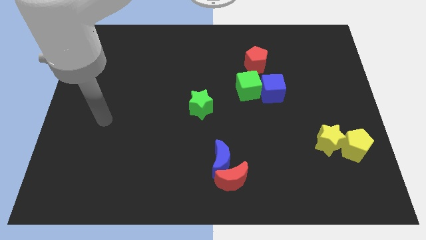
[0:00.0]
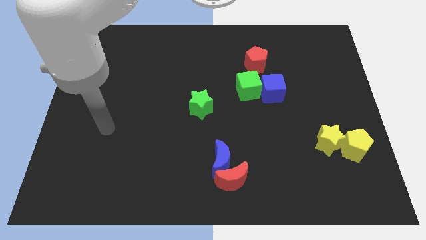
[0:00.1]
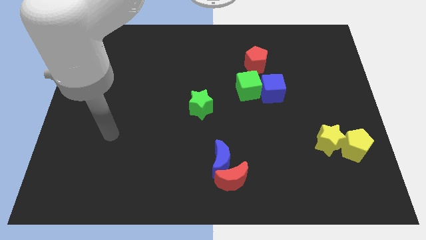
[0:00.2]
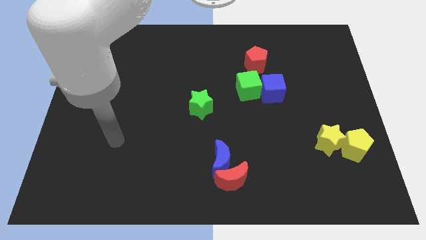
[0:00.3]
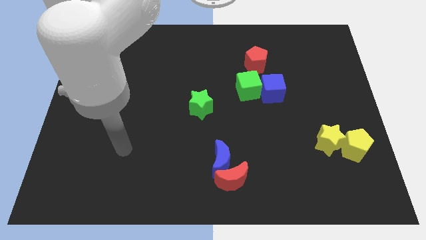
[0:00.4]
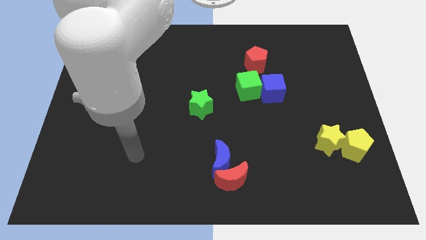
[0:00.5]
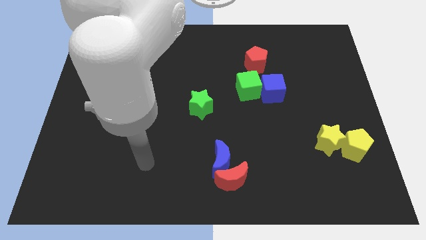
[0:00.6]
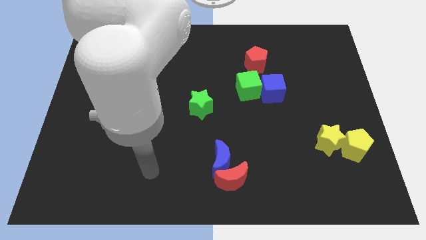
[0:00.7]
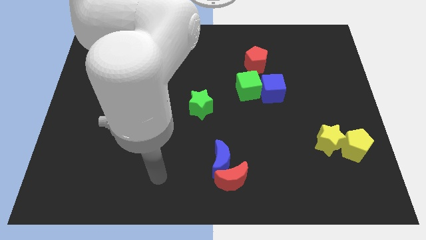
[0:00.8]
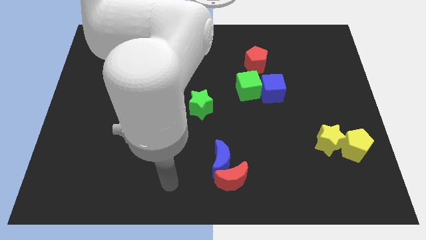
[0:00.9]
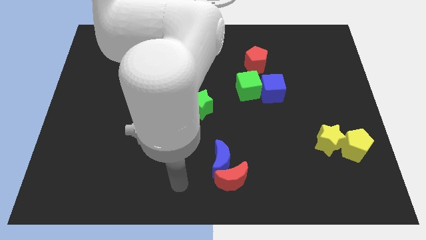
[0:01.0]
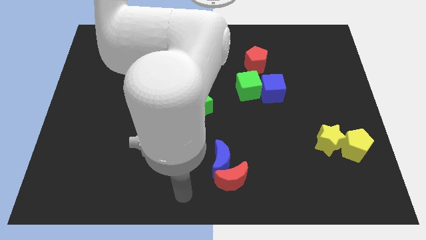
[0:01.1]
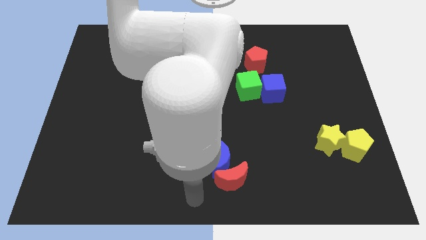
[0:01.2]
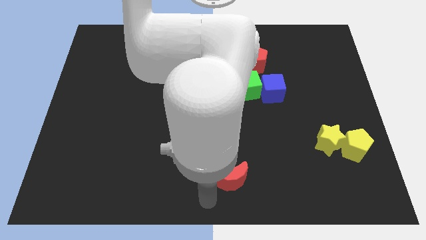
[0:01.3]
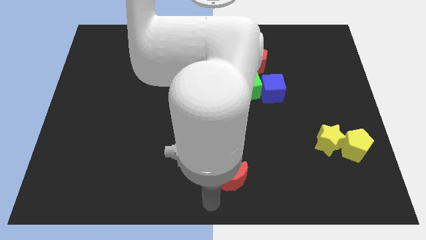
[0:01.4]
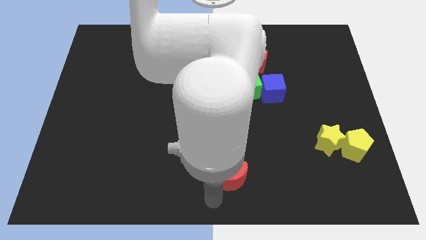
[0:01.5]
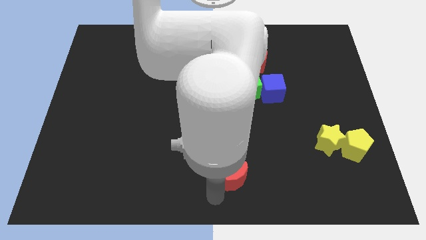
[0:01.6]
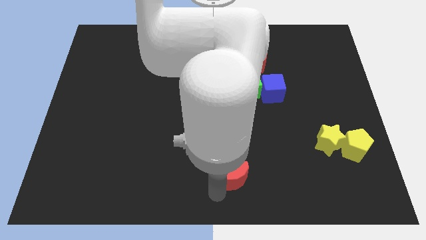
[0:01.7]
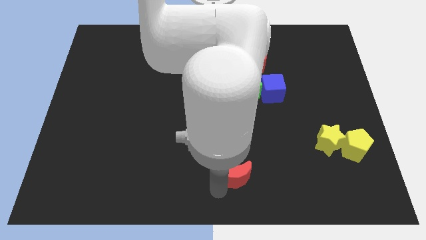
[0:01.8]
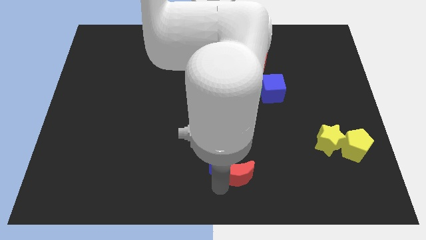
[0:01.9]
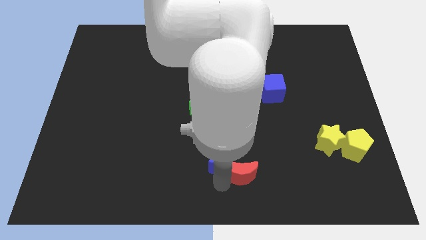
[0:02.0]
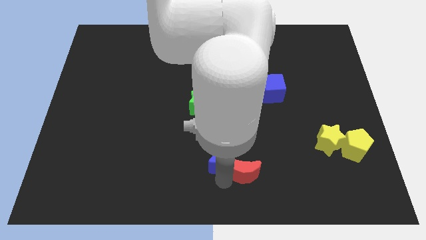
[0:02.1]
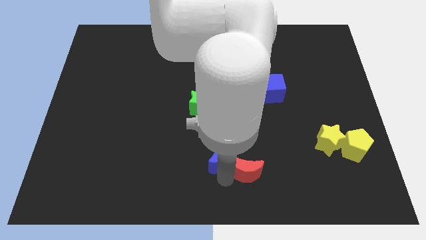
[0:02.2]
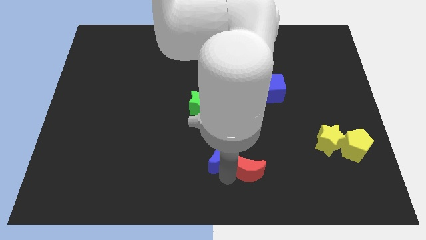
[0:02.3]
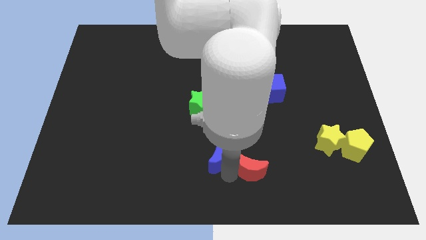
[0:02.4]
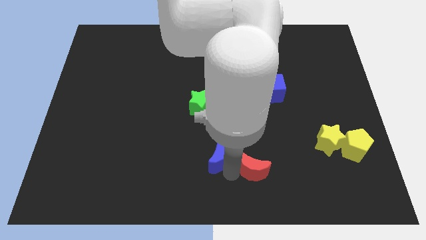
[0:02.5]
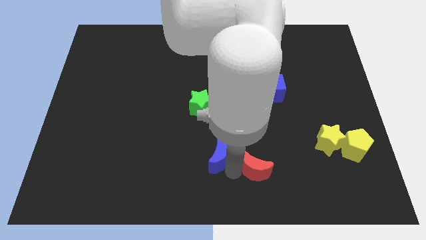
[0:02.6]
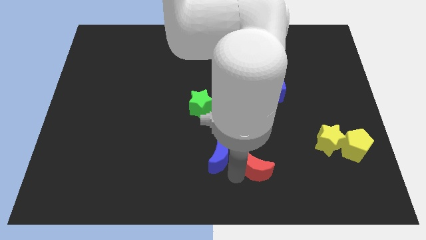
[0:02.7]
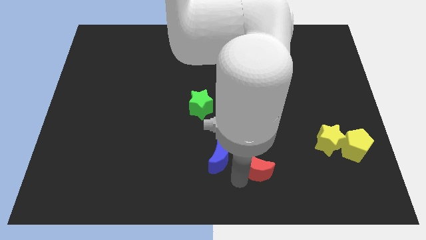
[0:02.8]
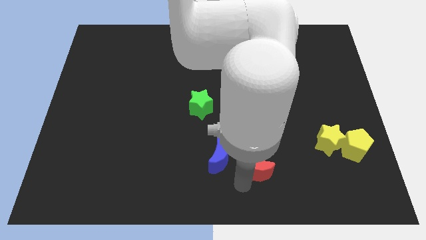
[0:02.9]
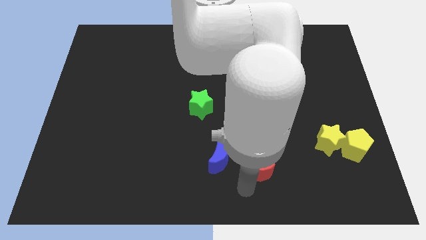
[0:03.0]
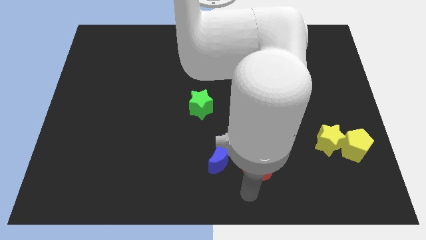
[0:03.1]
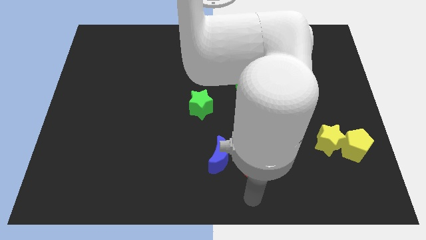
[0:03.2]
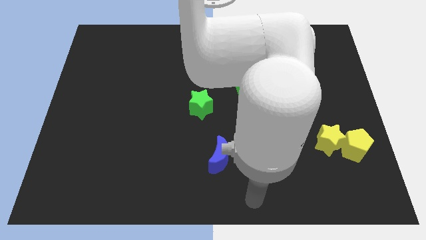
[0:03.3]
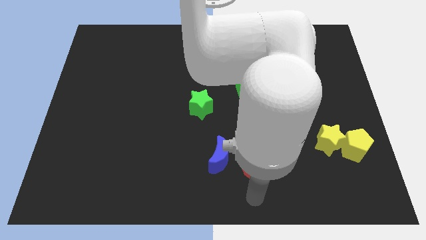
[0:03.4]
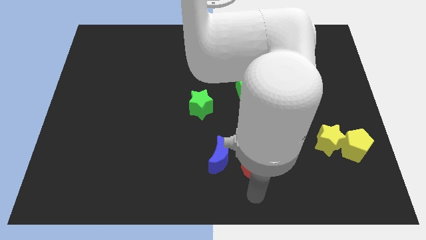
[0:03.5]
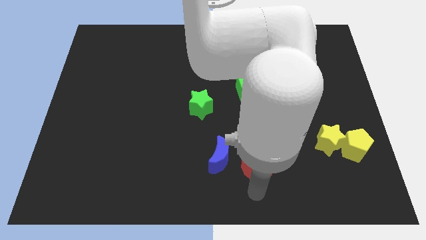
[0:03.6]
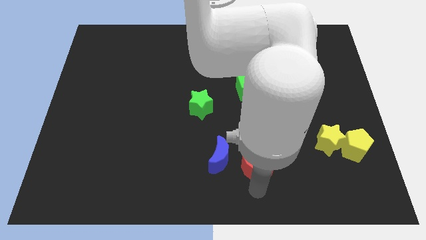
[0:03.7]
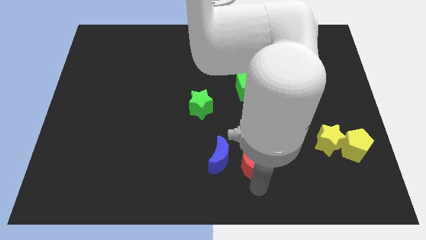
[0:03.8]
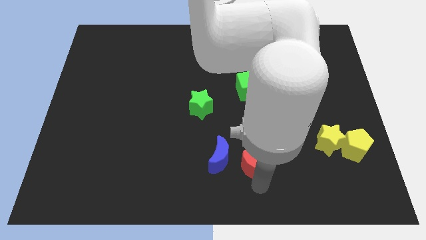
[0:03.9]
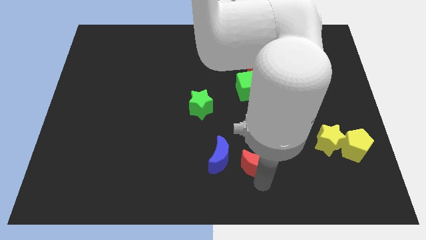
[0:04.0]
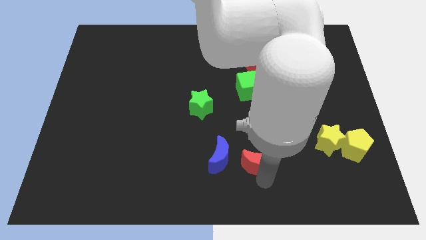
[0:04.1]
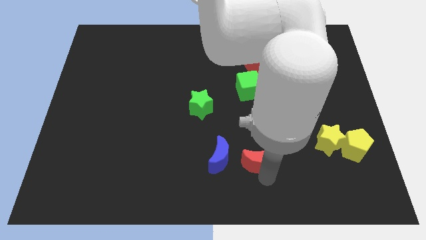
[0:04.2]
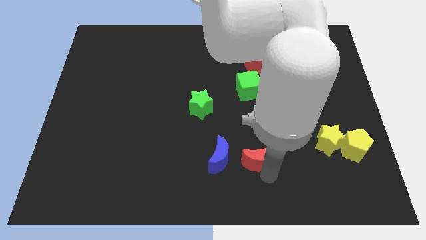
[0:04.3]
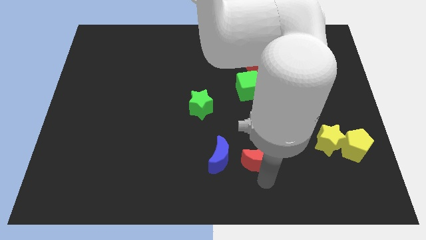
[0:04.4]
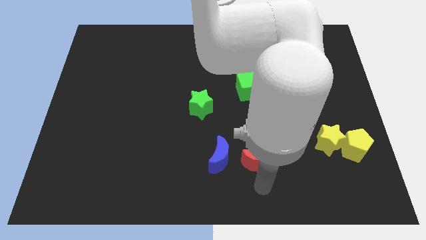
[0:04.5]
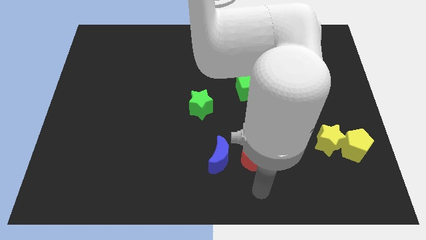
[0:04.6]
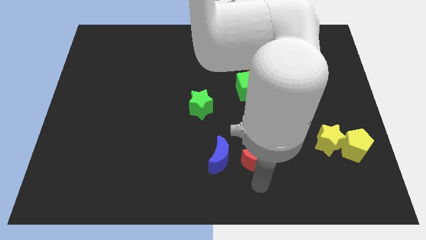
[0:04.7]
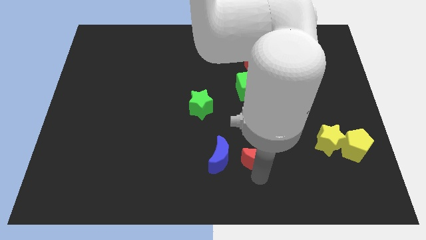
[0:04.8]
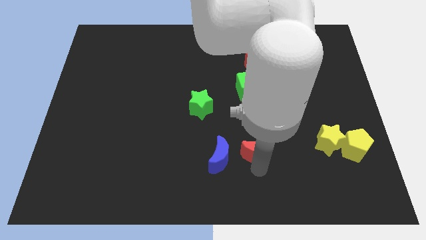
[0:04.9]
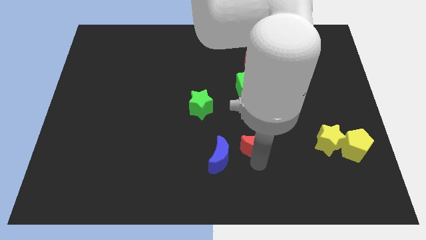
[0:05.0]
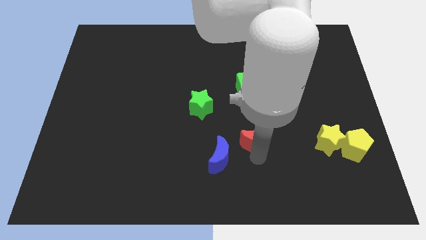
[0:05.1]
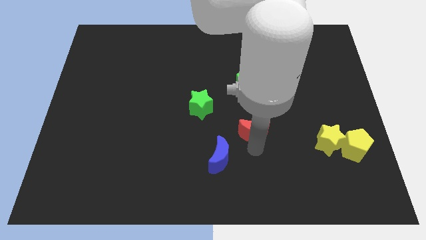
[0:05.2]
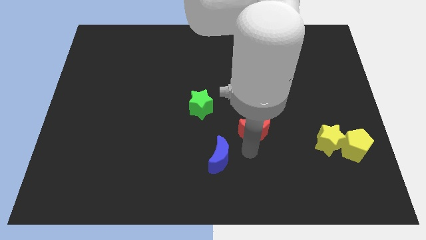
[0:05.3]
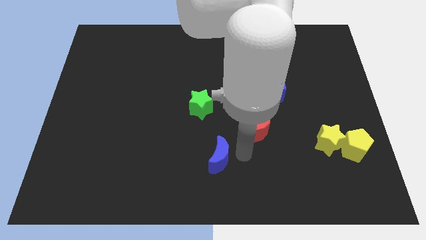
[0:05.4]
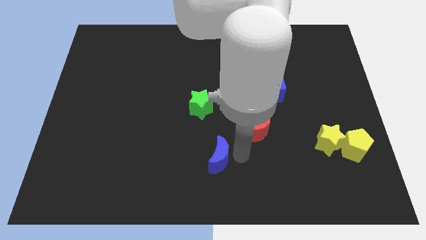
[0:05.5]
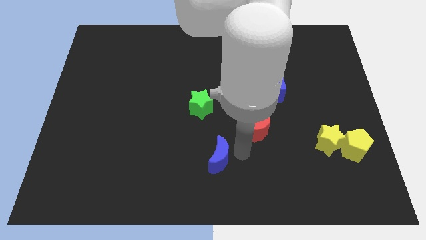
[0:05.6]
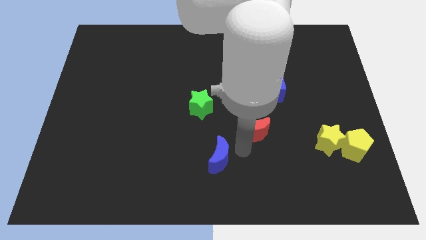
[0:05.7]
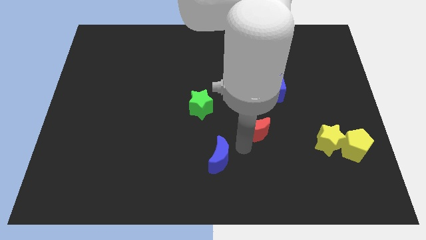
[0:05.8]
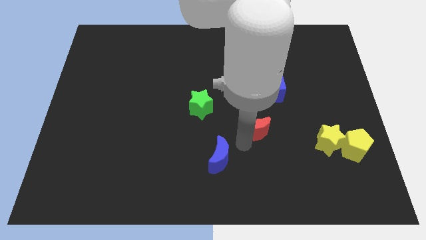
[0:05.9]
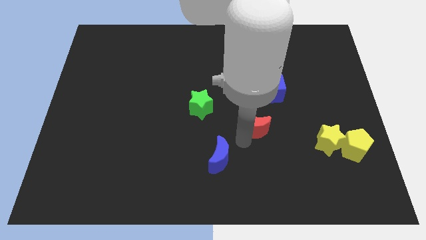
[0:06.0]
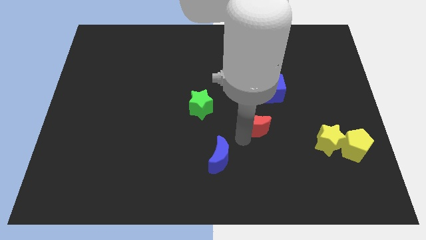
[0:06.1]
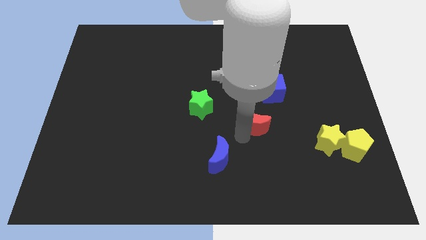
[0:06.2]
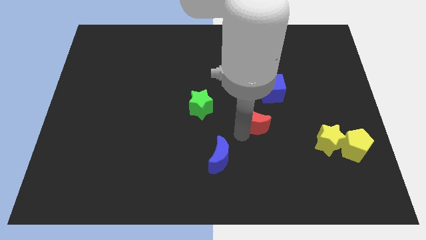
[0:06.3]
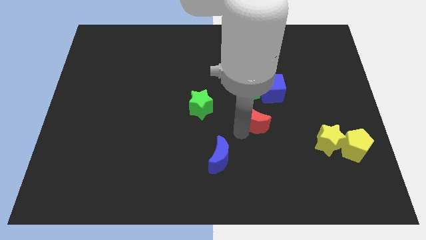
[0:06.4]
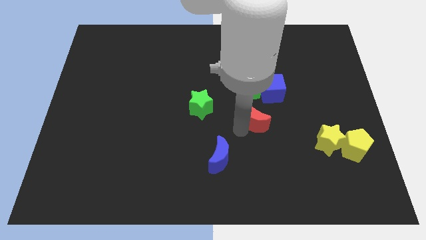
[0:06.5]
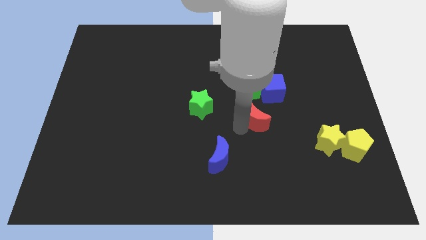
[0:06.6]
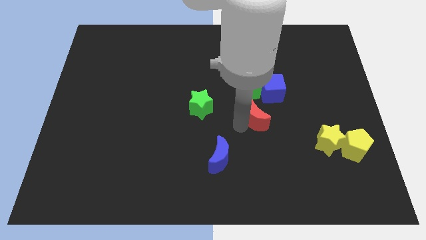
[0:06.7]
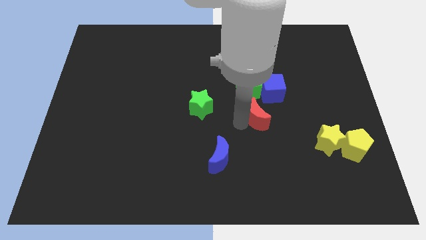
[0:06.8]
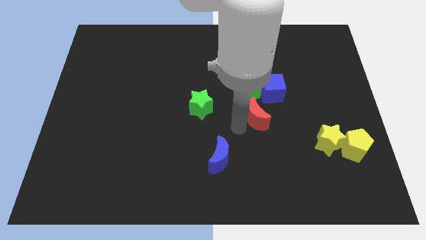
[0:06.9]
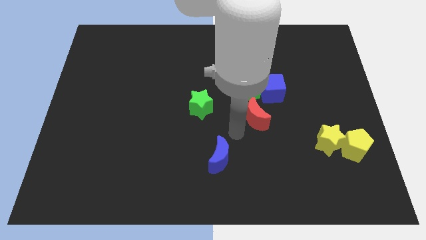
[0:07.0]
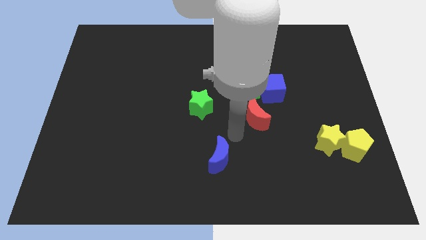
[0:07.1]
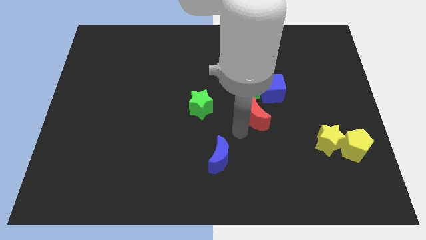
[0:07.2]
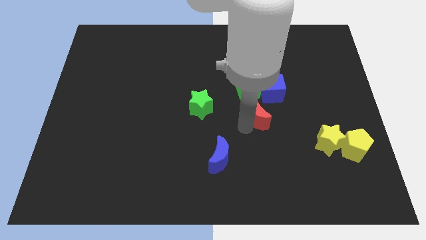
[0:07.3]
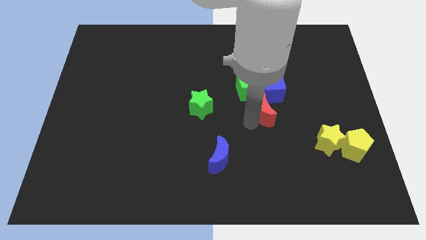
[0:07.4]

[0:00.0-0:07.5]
push the red moon to the bottom right side of the green cube
